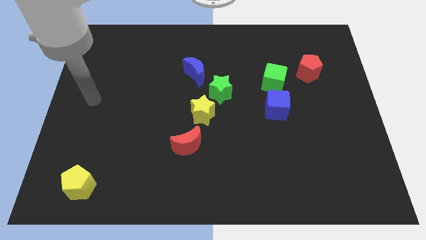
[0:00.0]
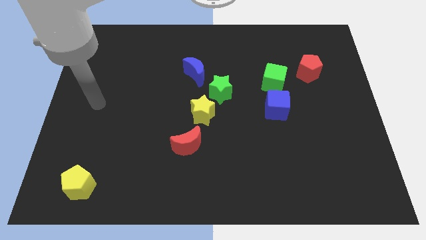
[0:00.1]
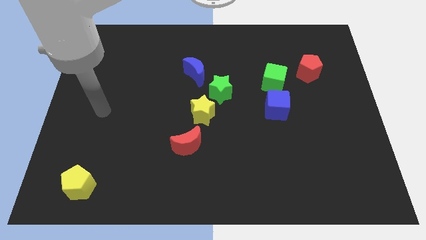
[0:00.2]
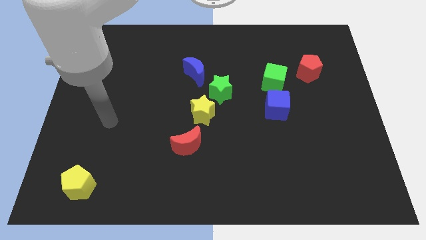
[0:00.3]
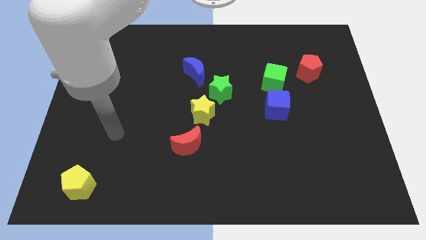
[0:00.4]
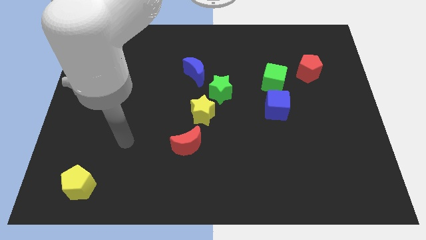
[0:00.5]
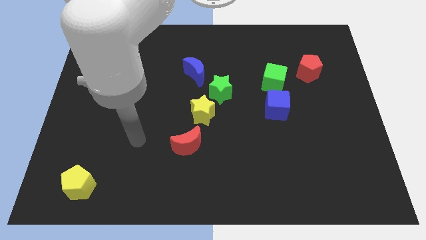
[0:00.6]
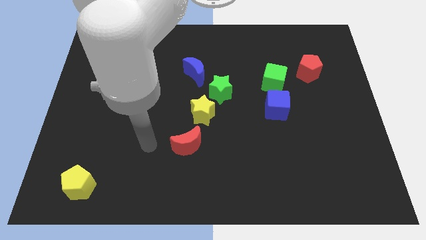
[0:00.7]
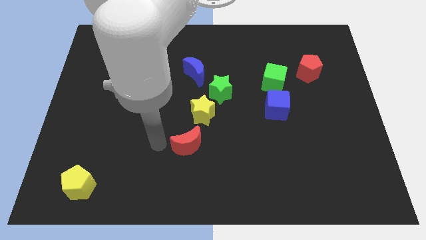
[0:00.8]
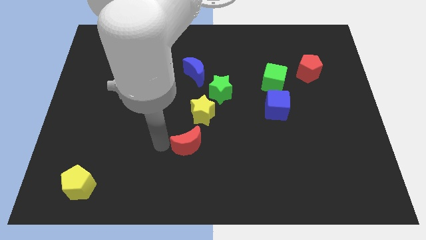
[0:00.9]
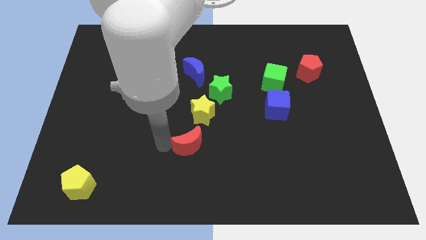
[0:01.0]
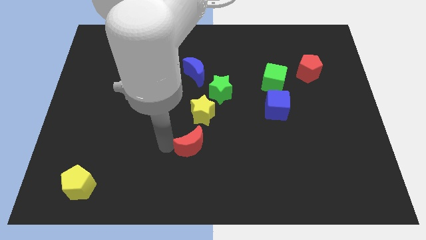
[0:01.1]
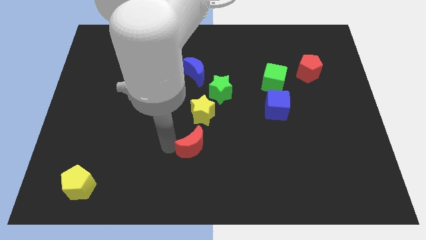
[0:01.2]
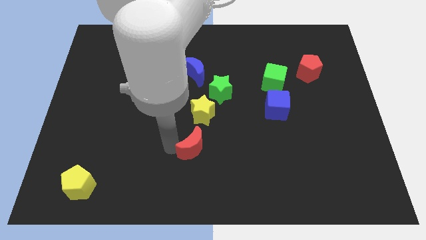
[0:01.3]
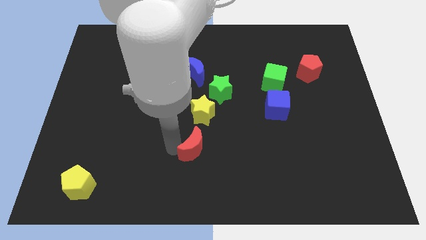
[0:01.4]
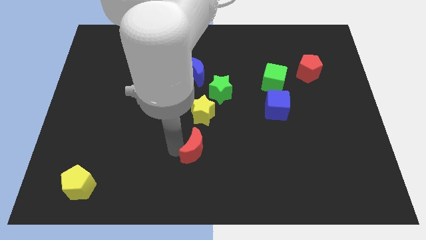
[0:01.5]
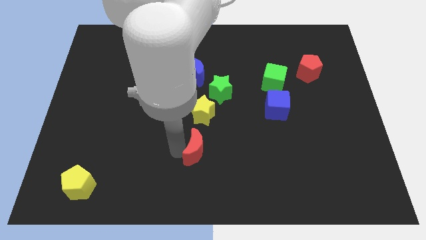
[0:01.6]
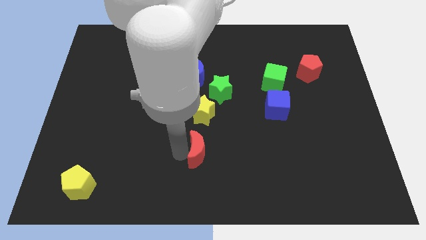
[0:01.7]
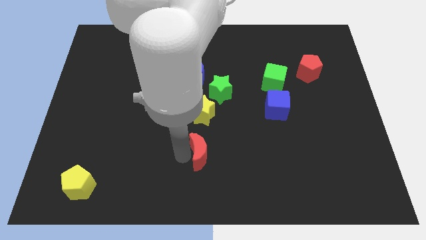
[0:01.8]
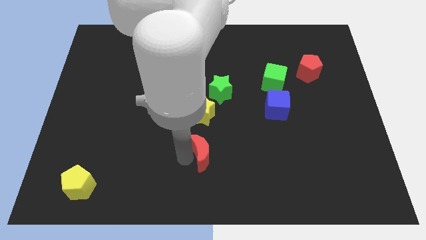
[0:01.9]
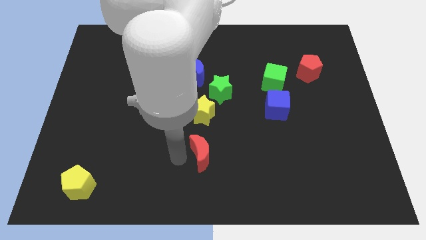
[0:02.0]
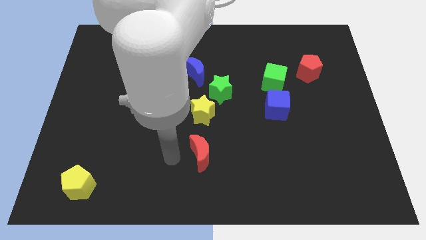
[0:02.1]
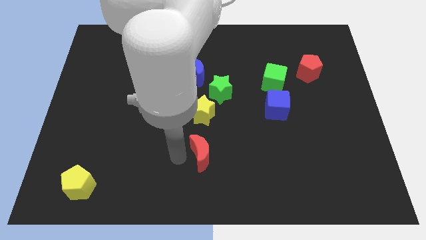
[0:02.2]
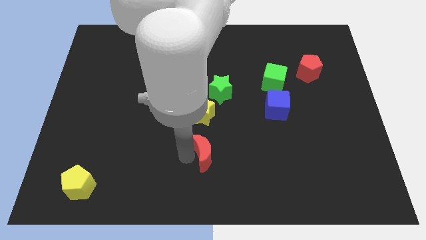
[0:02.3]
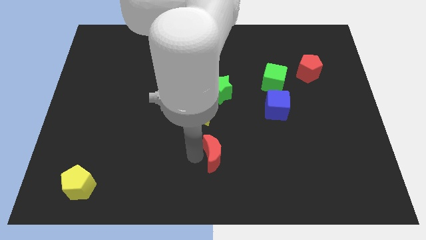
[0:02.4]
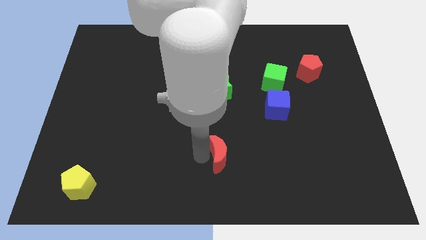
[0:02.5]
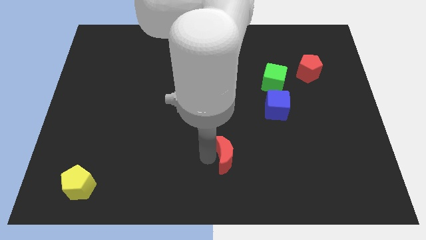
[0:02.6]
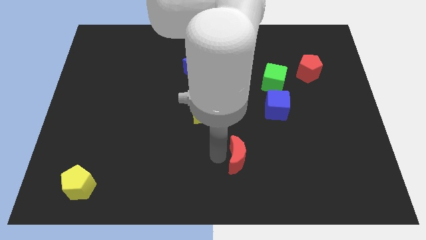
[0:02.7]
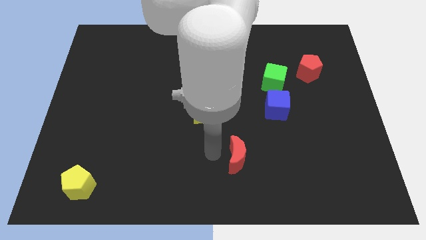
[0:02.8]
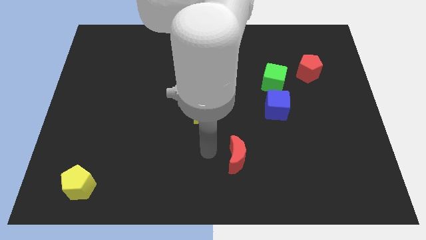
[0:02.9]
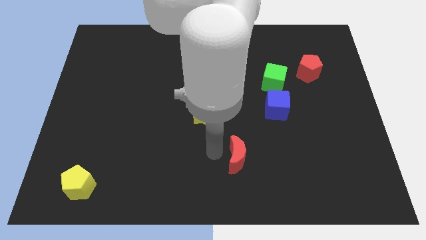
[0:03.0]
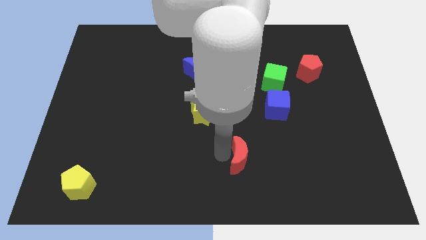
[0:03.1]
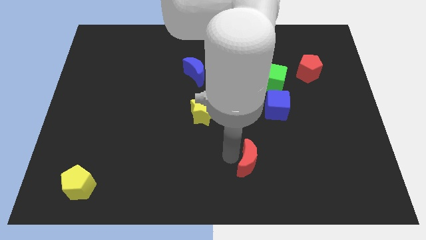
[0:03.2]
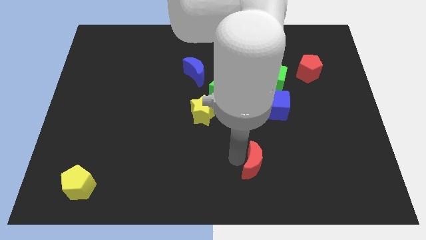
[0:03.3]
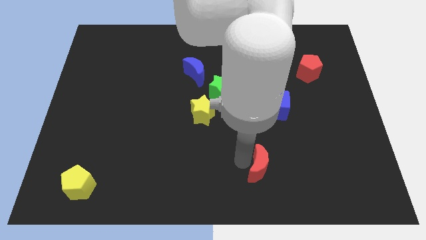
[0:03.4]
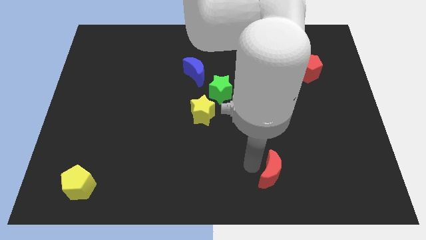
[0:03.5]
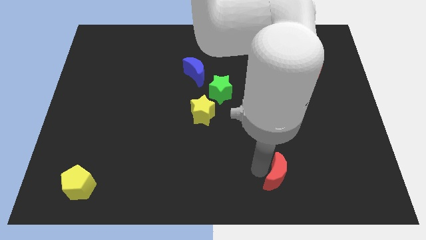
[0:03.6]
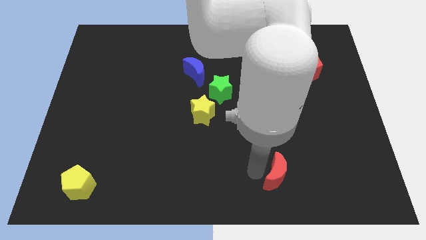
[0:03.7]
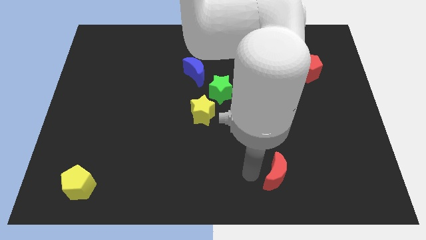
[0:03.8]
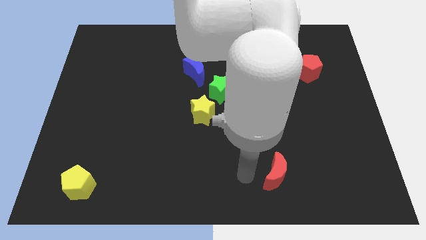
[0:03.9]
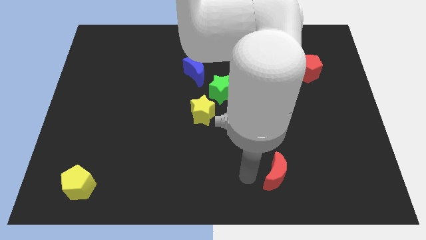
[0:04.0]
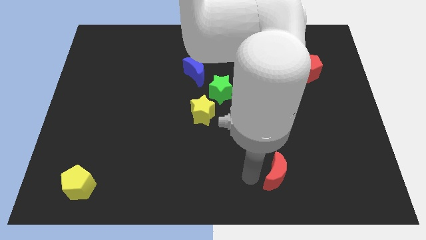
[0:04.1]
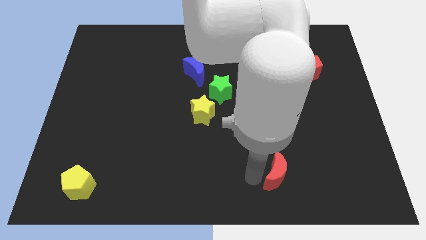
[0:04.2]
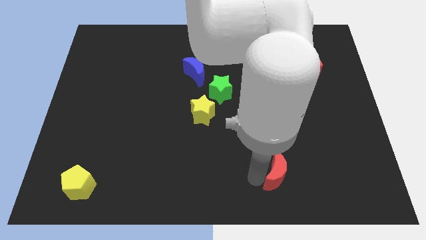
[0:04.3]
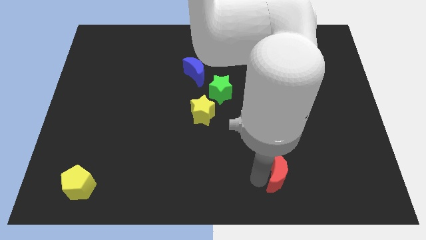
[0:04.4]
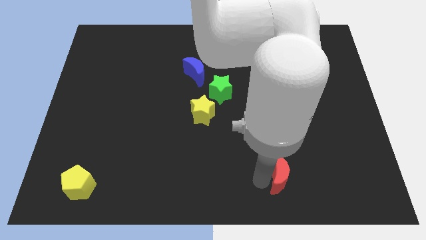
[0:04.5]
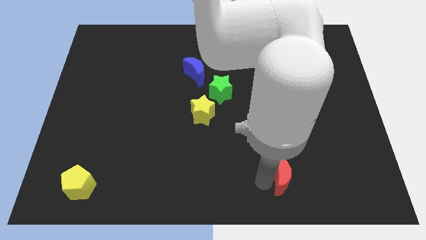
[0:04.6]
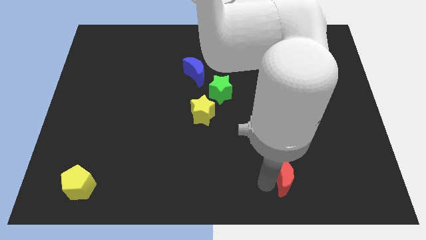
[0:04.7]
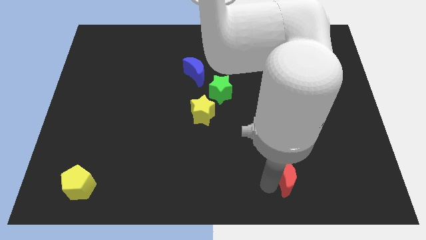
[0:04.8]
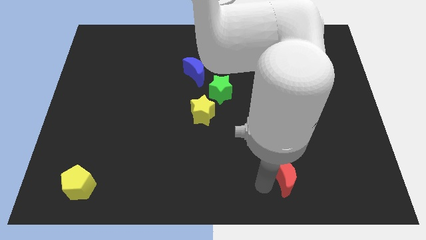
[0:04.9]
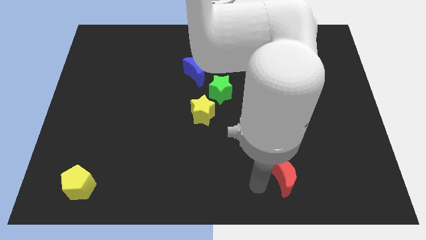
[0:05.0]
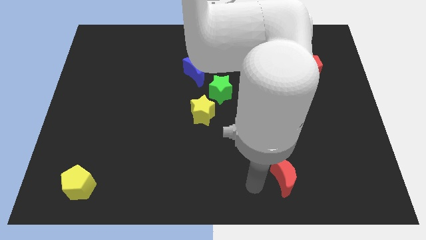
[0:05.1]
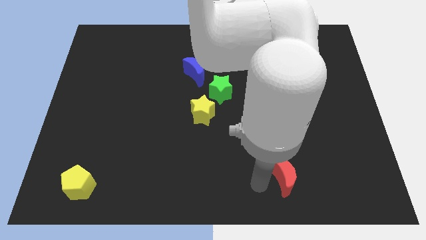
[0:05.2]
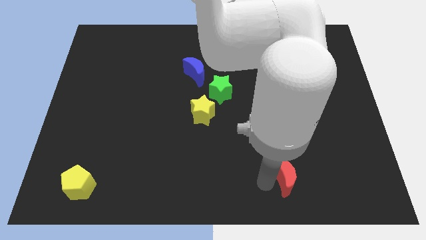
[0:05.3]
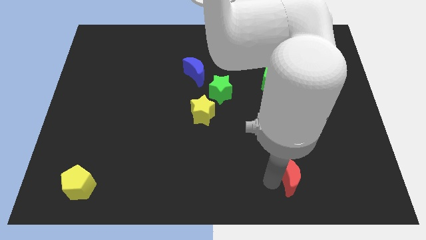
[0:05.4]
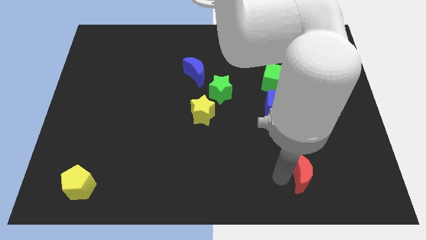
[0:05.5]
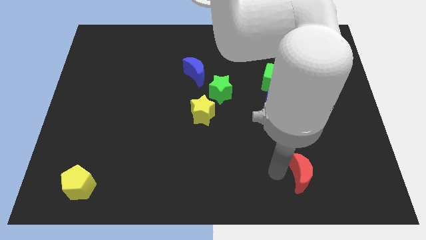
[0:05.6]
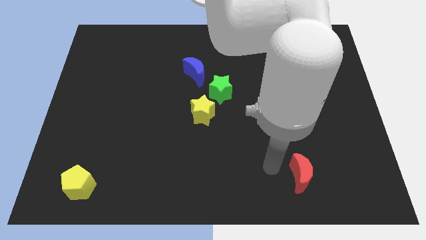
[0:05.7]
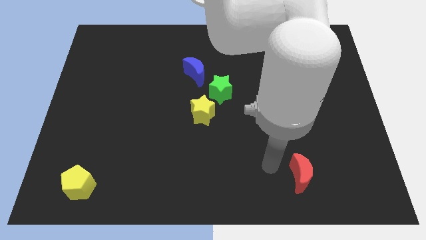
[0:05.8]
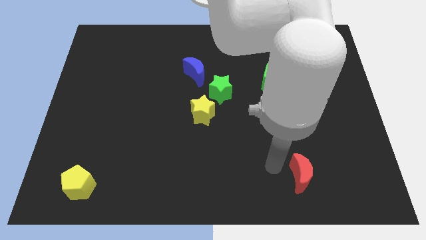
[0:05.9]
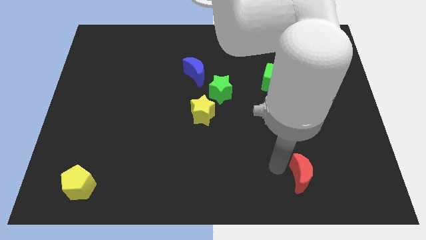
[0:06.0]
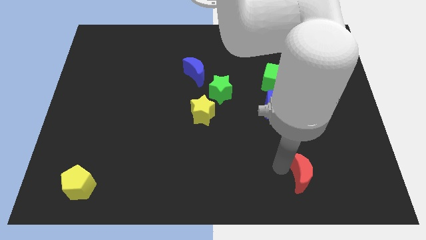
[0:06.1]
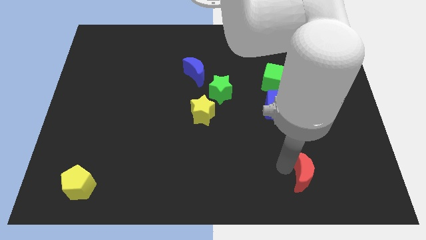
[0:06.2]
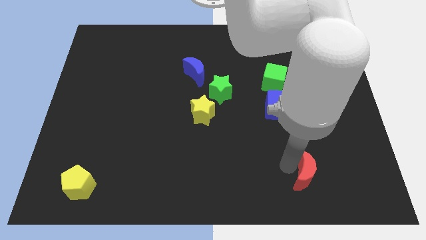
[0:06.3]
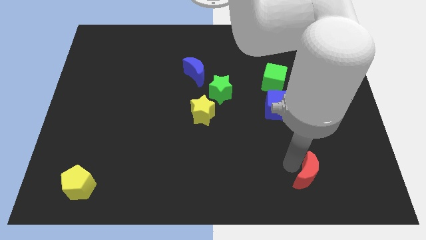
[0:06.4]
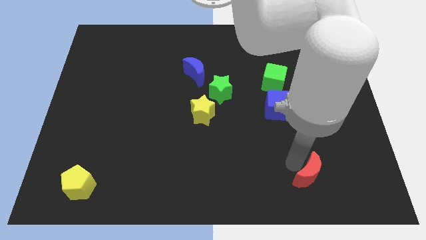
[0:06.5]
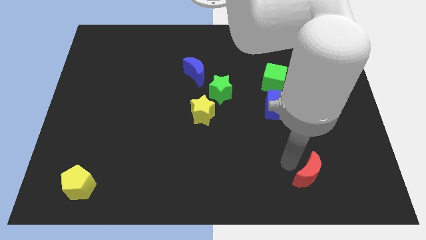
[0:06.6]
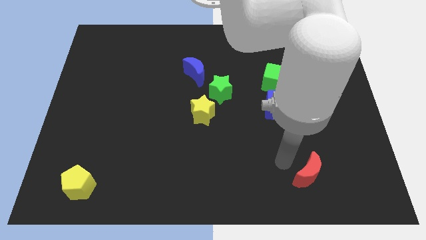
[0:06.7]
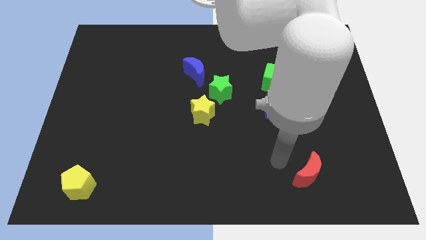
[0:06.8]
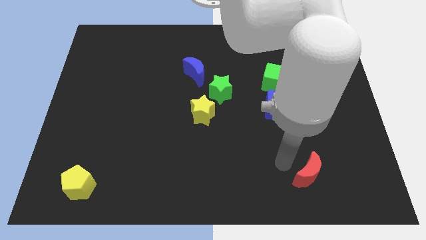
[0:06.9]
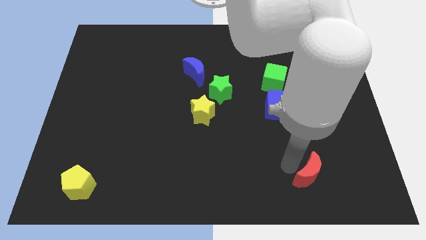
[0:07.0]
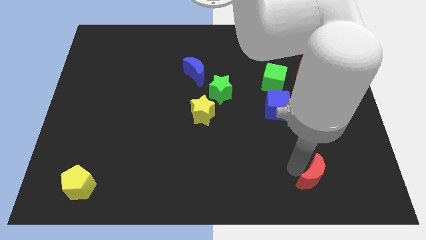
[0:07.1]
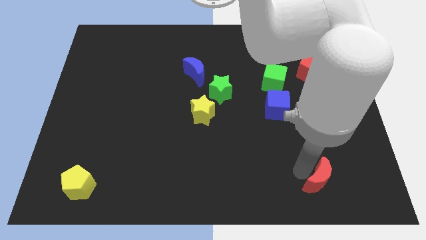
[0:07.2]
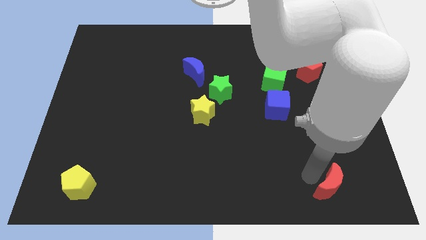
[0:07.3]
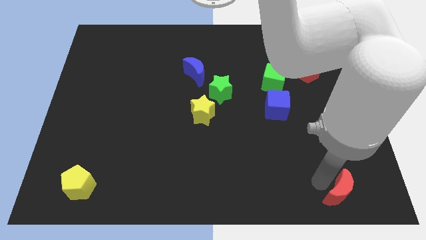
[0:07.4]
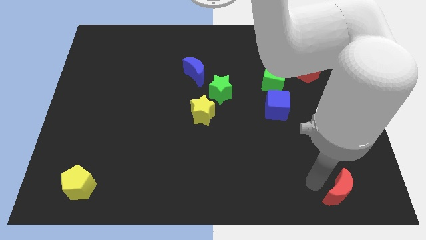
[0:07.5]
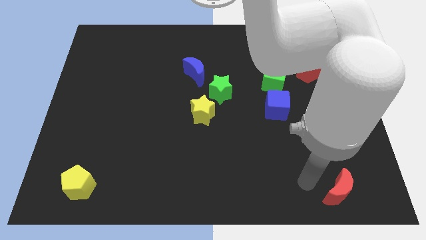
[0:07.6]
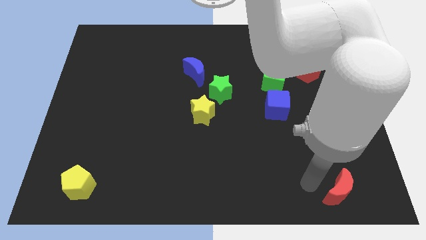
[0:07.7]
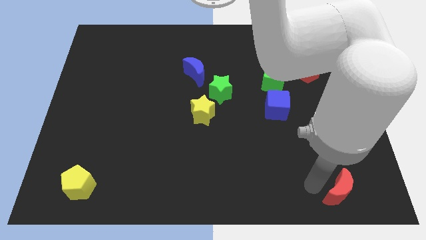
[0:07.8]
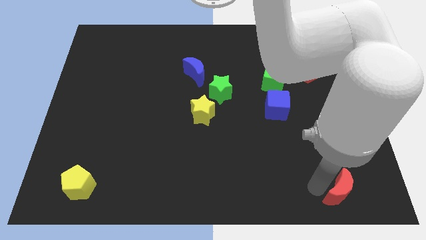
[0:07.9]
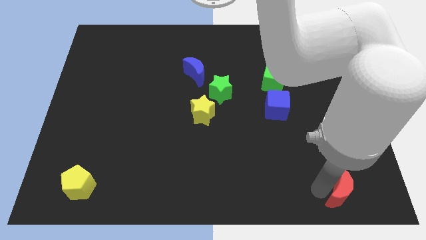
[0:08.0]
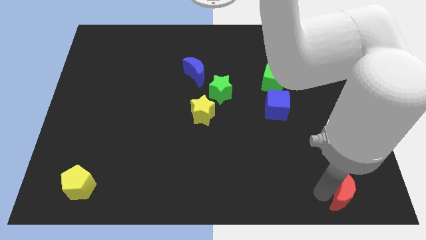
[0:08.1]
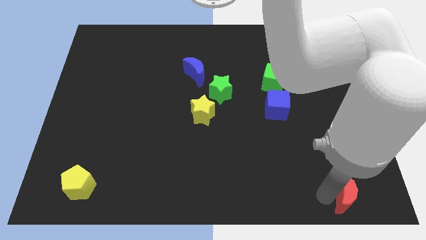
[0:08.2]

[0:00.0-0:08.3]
push the red moon to the lower right corner

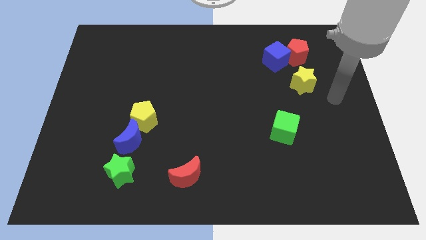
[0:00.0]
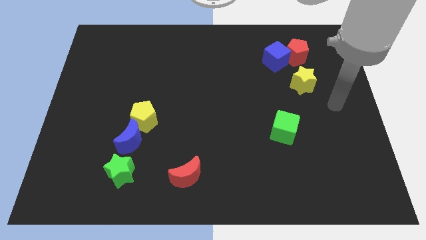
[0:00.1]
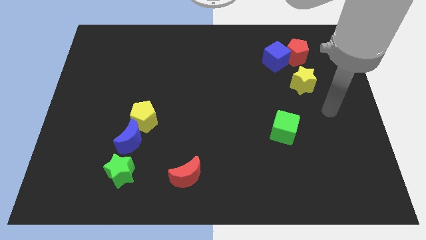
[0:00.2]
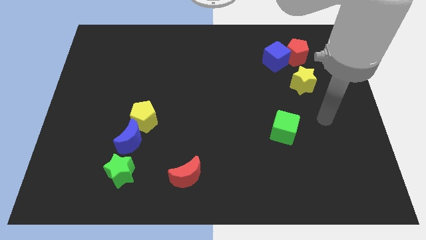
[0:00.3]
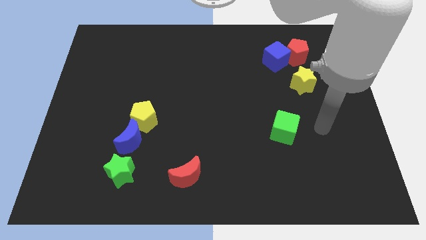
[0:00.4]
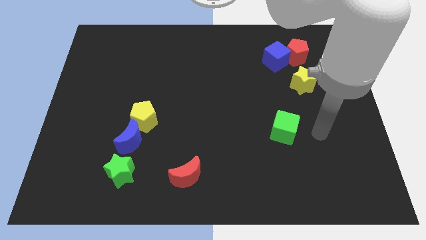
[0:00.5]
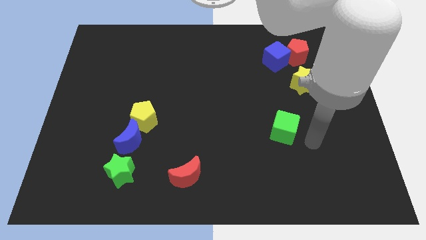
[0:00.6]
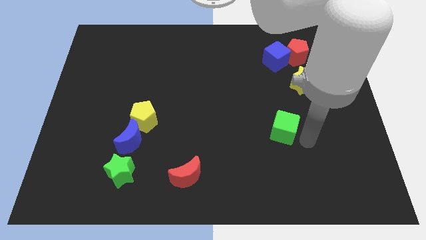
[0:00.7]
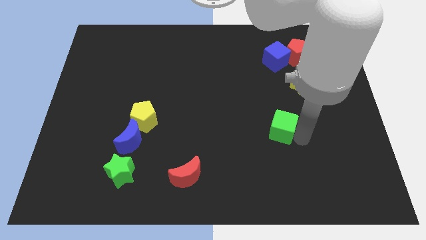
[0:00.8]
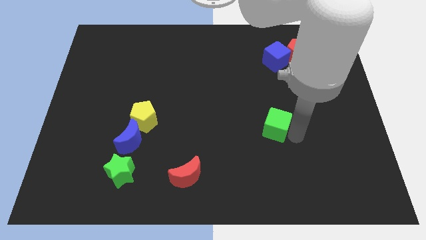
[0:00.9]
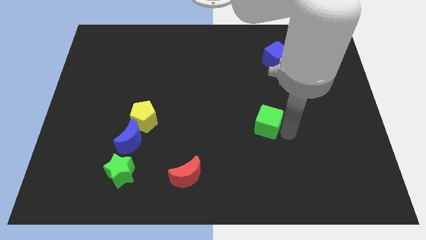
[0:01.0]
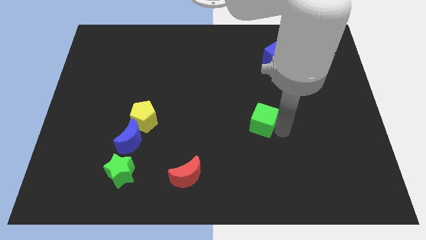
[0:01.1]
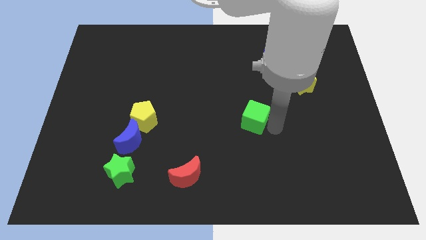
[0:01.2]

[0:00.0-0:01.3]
push the green cube to the middle
